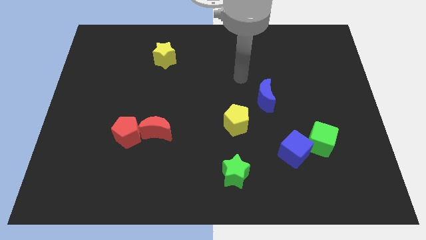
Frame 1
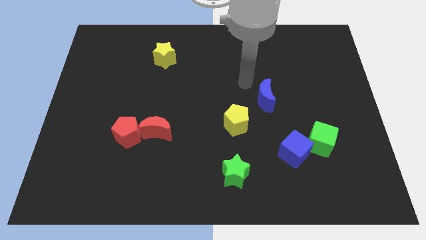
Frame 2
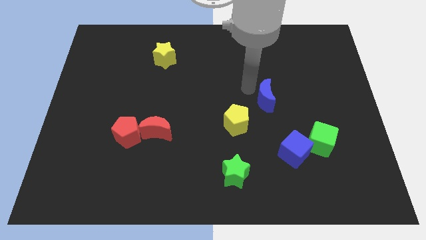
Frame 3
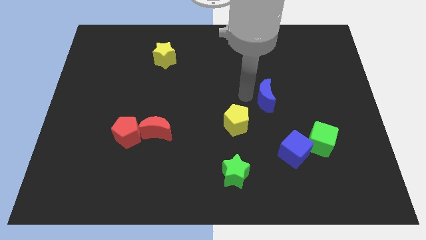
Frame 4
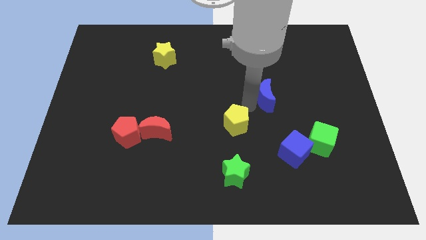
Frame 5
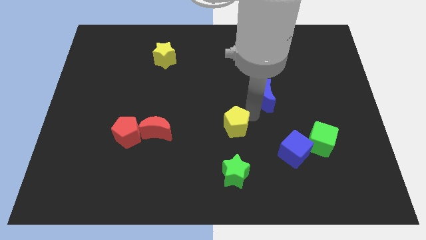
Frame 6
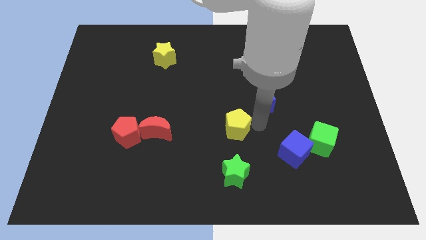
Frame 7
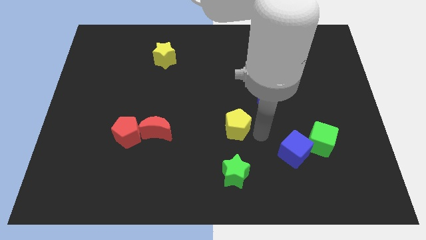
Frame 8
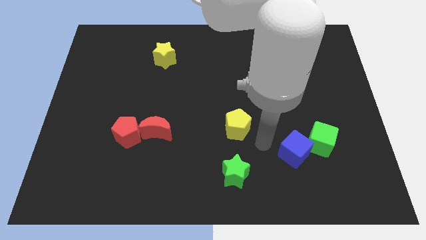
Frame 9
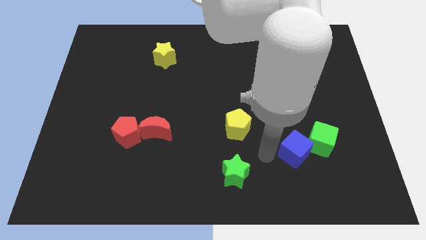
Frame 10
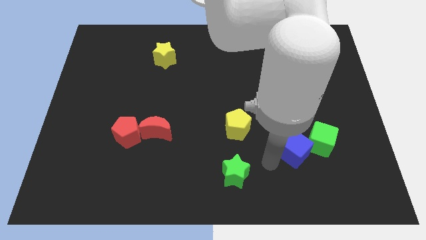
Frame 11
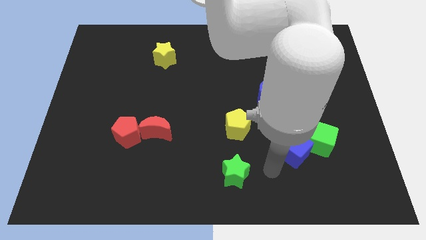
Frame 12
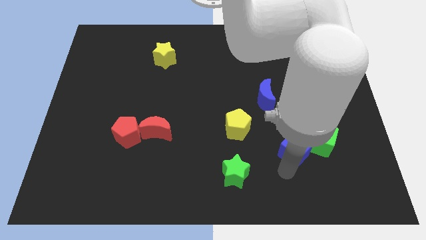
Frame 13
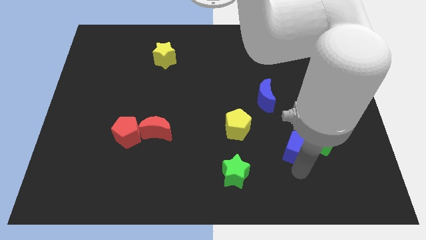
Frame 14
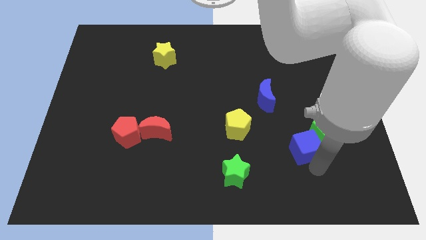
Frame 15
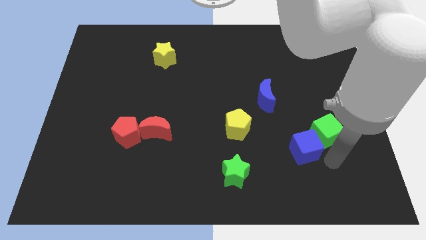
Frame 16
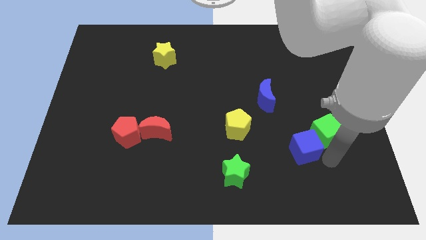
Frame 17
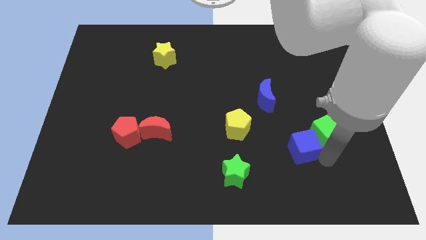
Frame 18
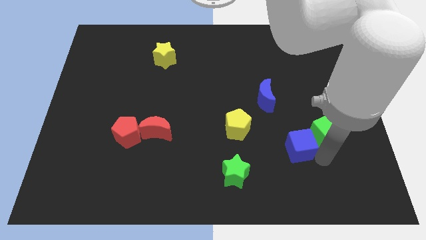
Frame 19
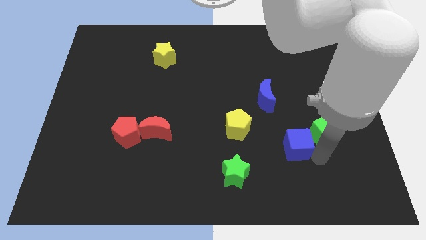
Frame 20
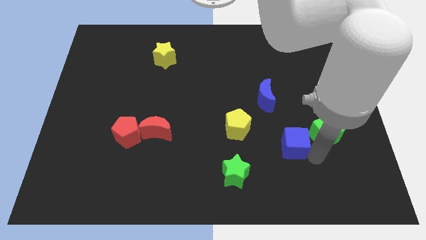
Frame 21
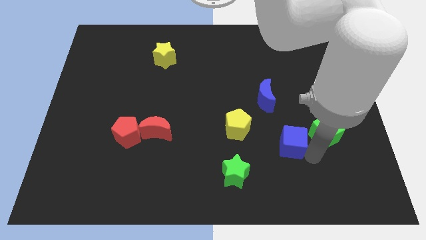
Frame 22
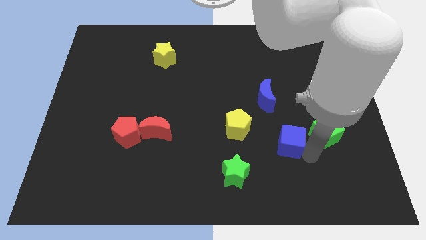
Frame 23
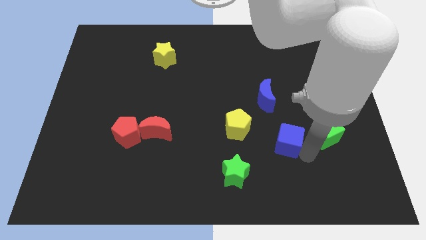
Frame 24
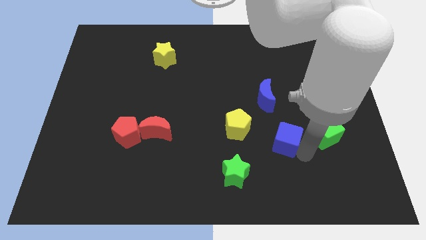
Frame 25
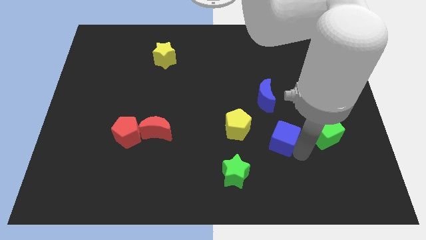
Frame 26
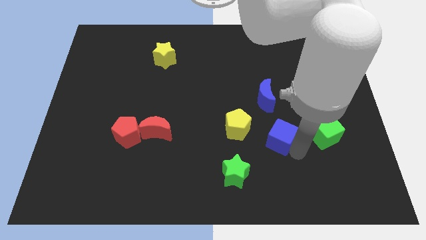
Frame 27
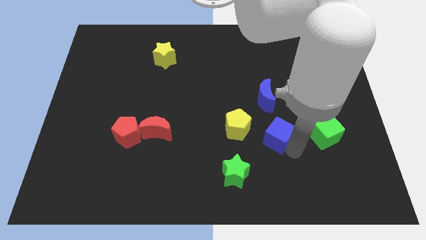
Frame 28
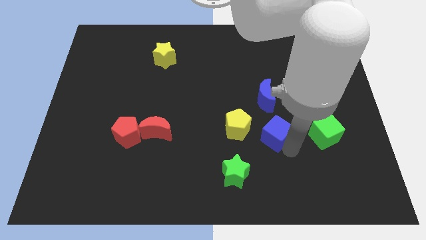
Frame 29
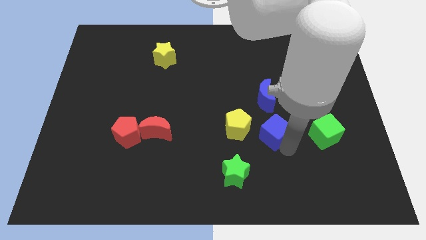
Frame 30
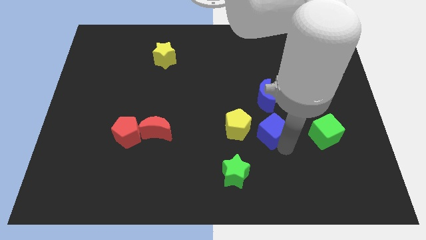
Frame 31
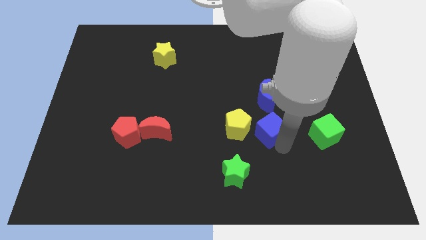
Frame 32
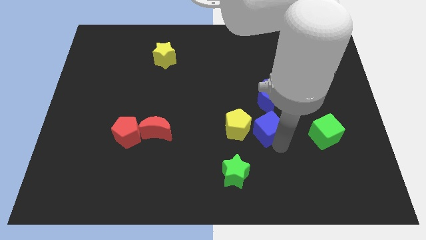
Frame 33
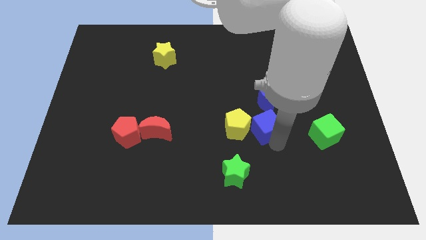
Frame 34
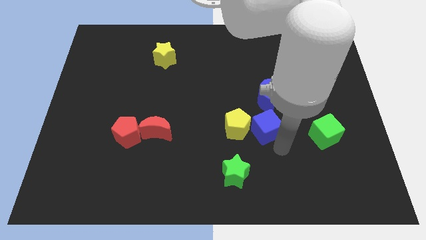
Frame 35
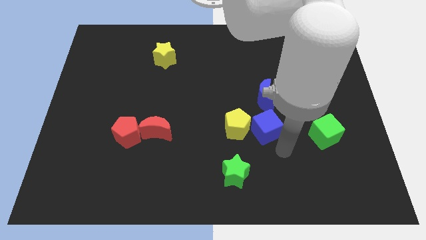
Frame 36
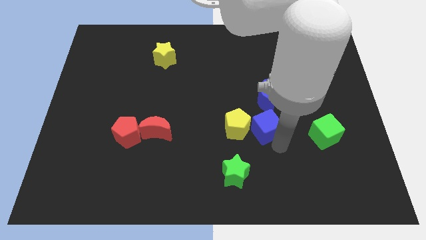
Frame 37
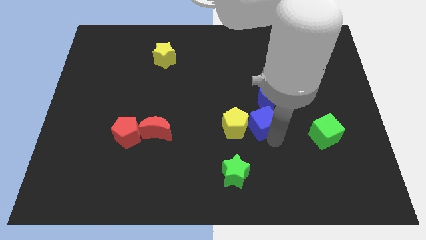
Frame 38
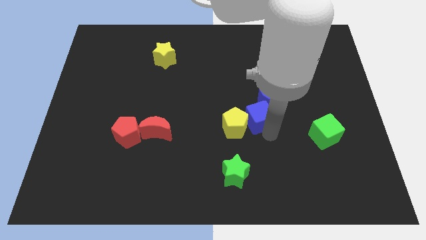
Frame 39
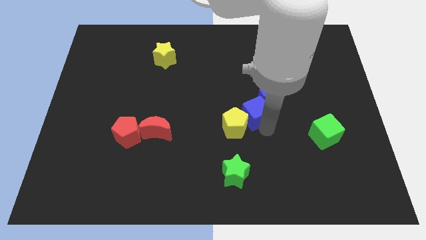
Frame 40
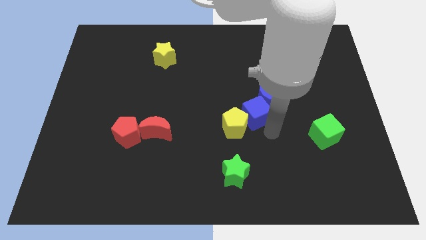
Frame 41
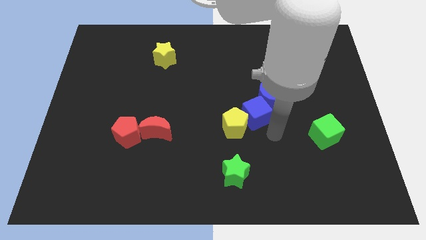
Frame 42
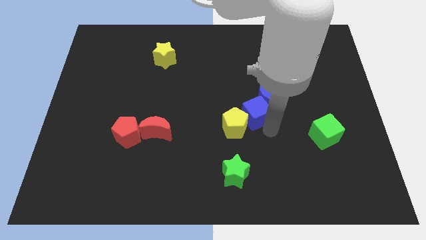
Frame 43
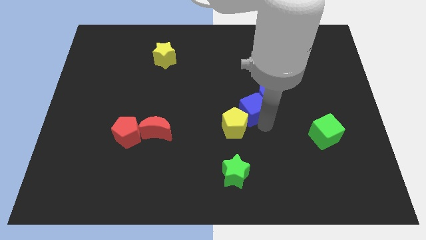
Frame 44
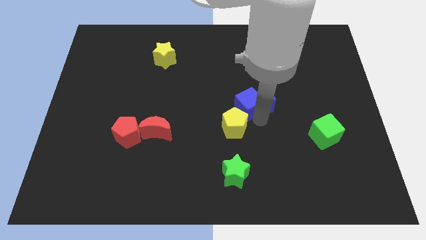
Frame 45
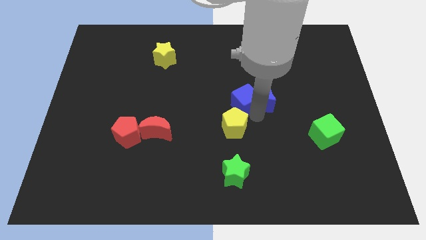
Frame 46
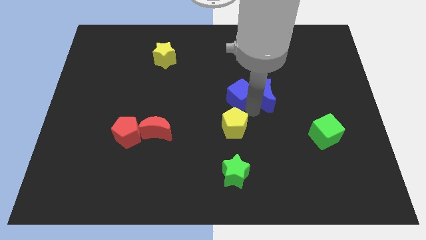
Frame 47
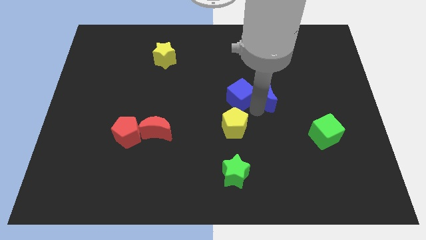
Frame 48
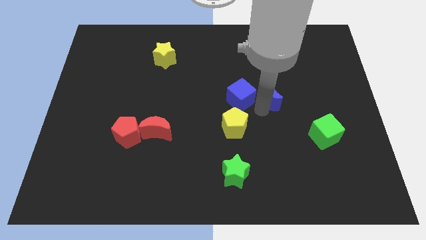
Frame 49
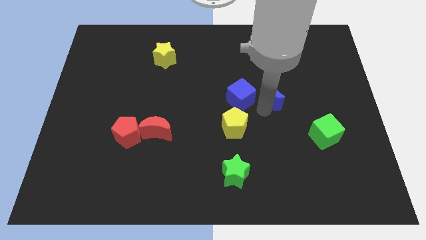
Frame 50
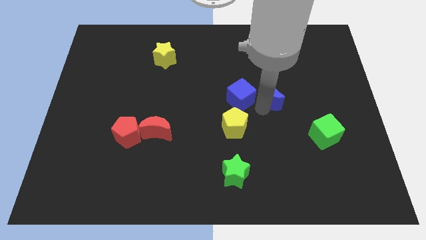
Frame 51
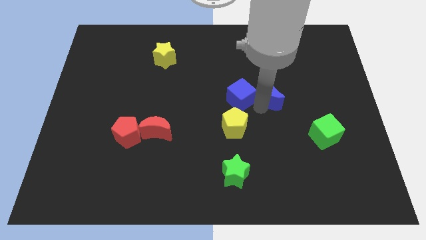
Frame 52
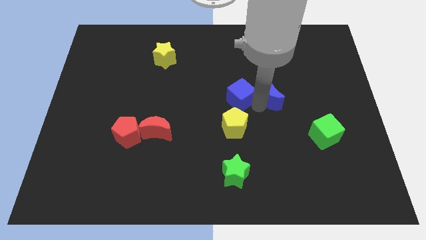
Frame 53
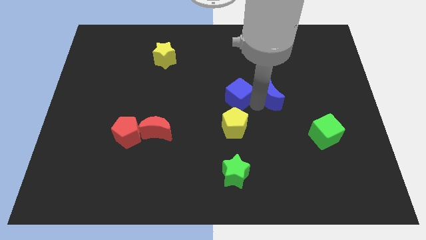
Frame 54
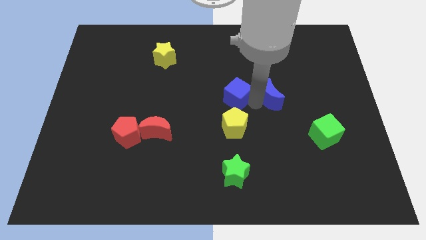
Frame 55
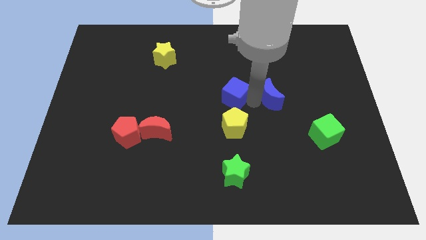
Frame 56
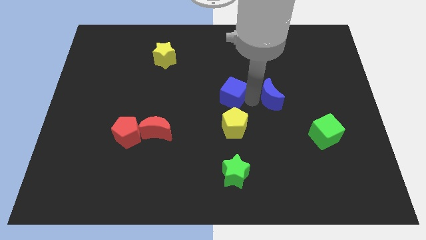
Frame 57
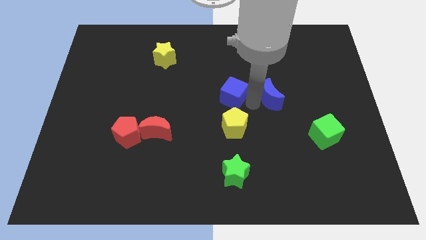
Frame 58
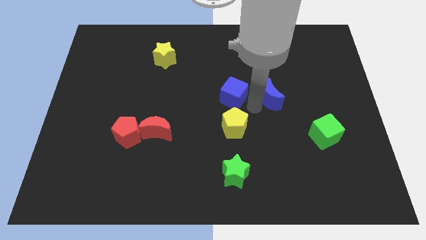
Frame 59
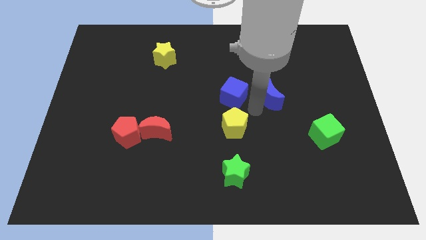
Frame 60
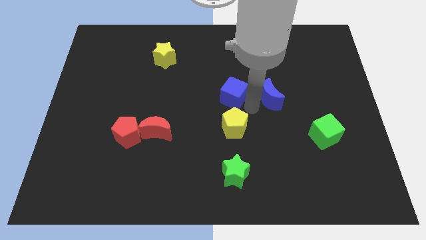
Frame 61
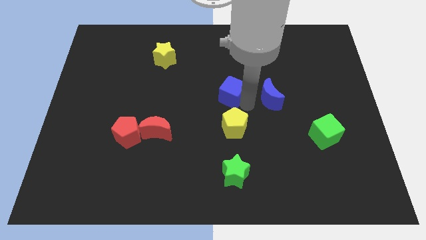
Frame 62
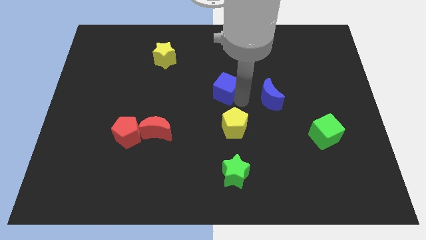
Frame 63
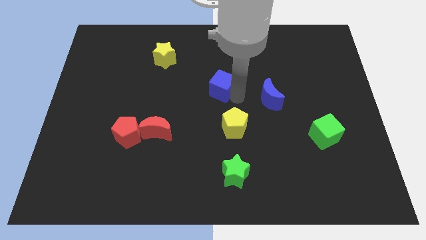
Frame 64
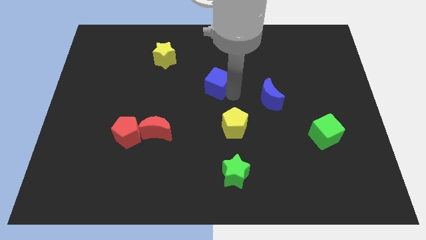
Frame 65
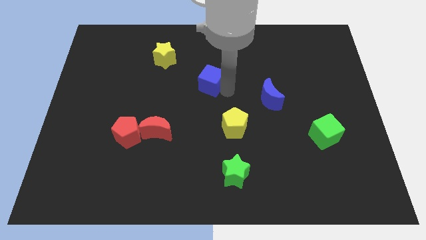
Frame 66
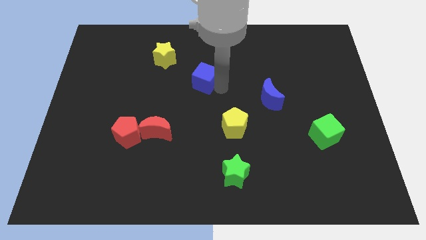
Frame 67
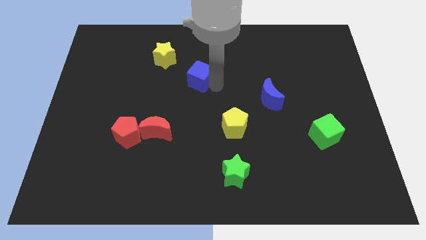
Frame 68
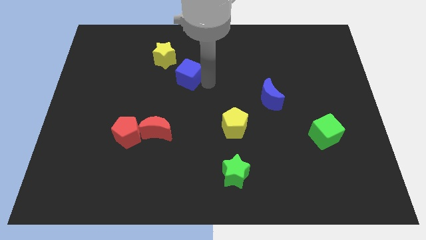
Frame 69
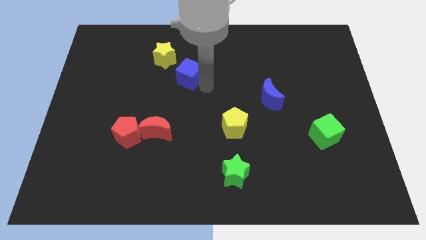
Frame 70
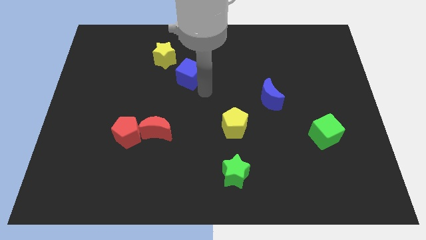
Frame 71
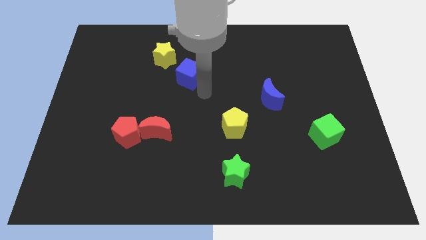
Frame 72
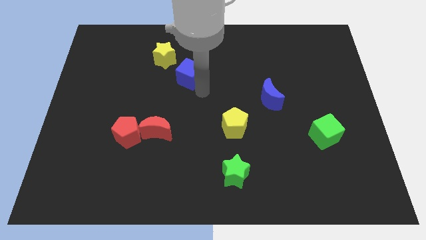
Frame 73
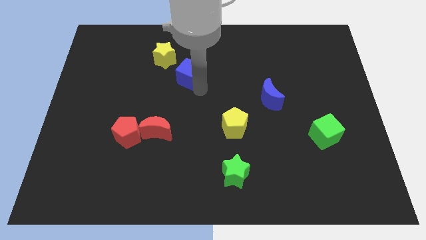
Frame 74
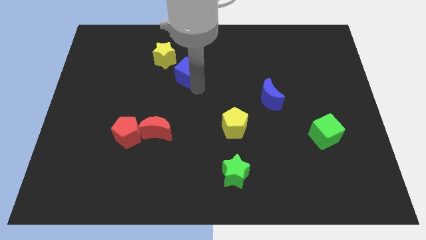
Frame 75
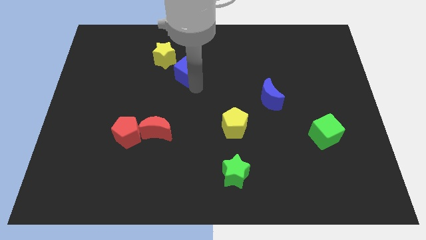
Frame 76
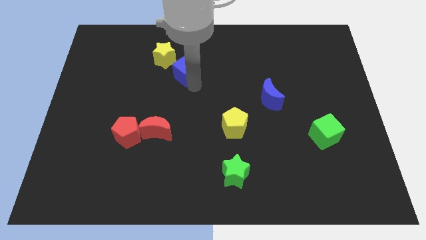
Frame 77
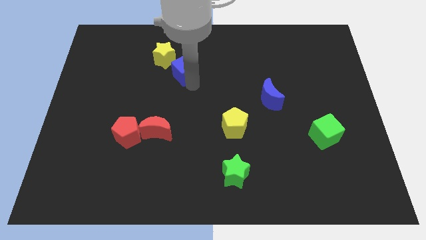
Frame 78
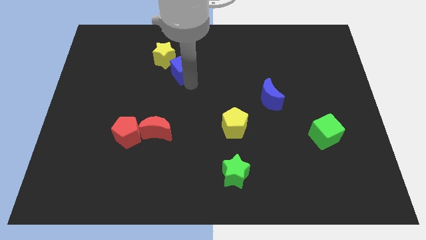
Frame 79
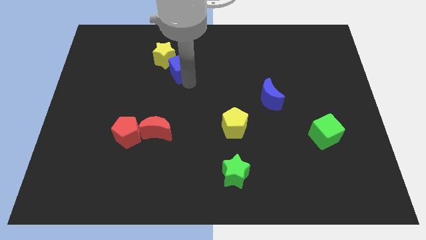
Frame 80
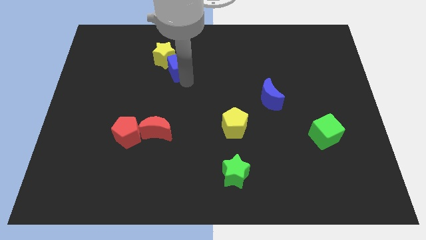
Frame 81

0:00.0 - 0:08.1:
put the blue cube next to the yellow star
